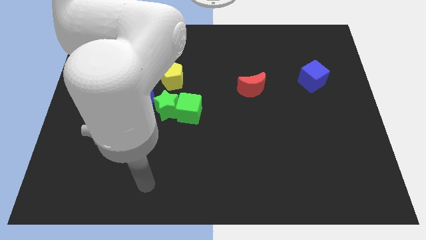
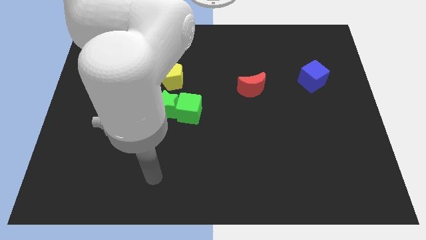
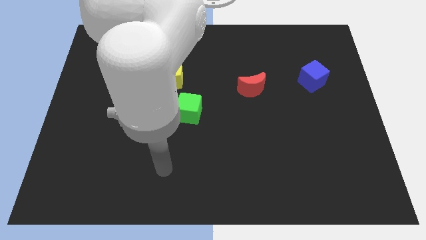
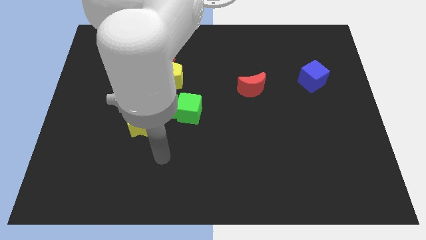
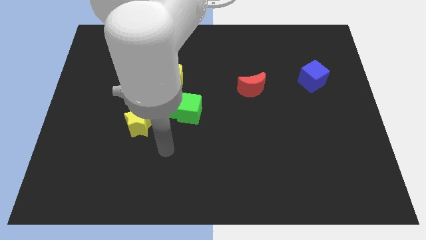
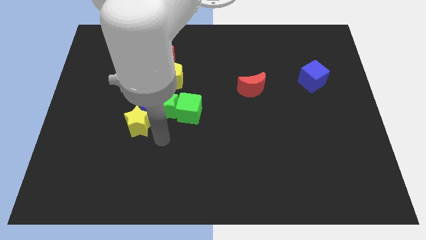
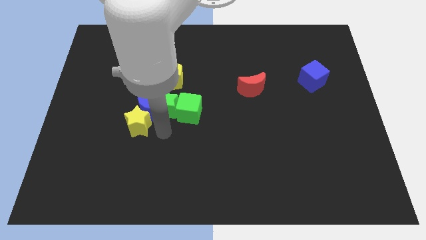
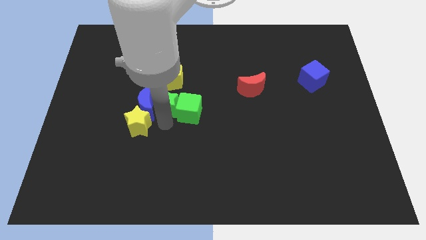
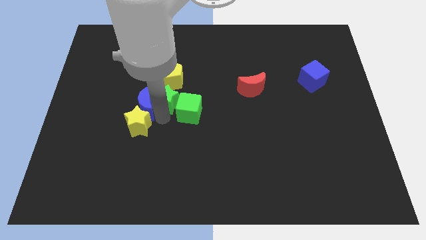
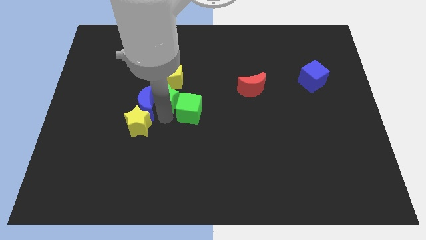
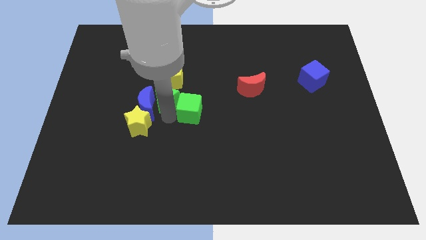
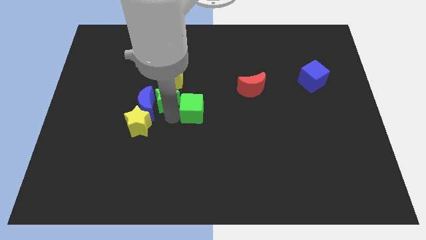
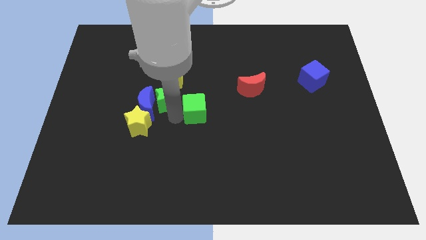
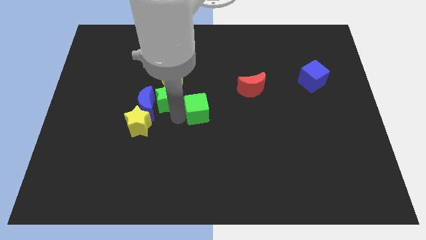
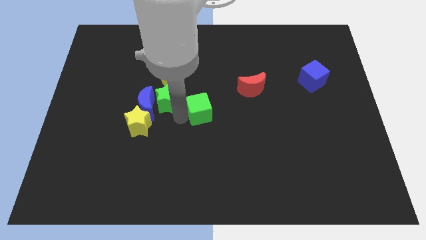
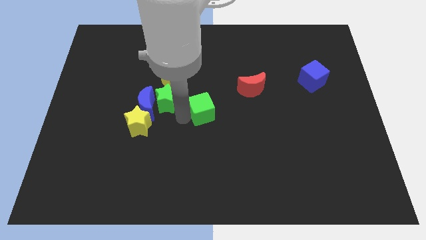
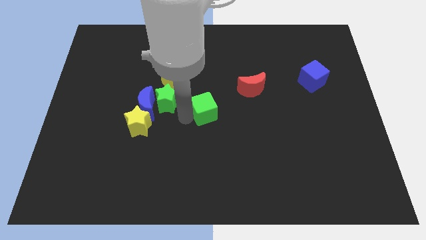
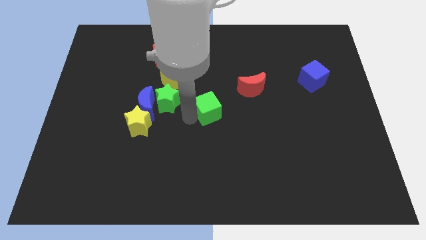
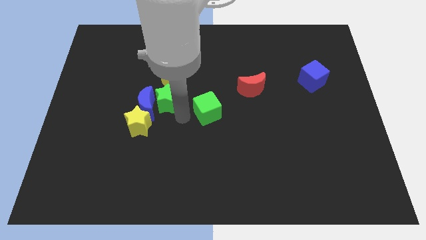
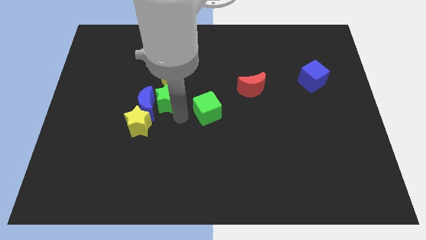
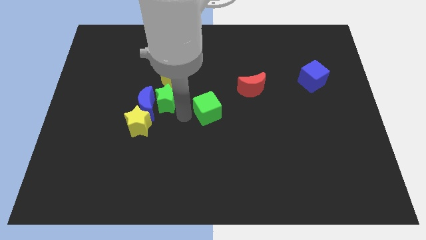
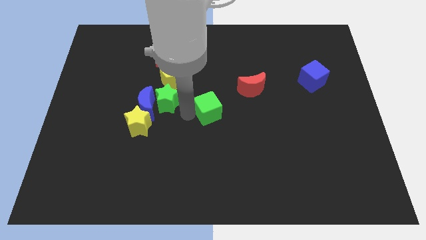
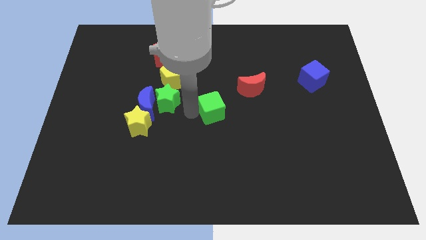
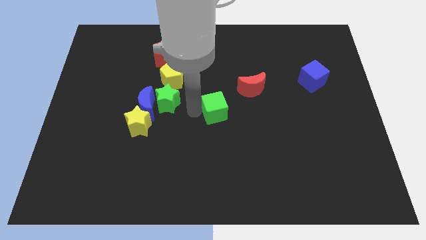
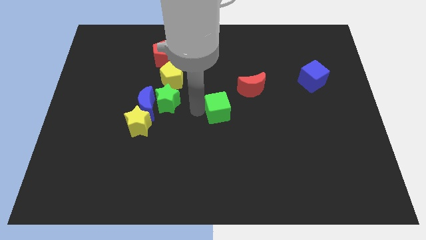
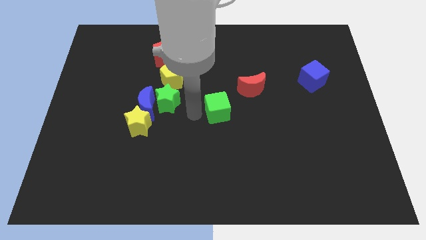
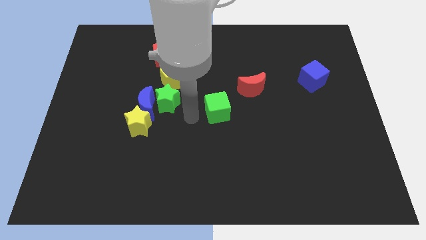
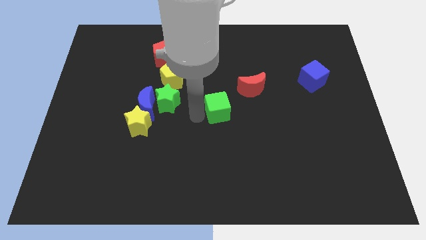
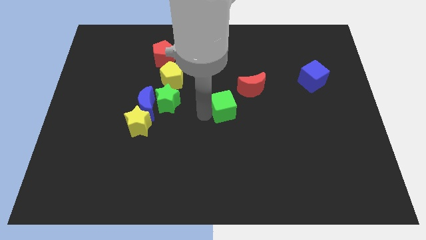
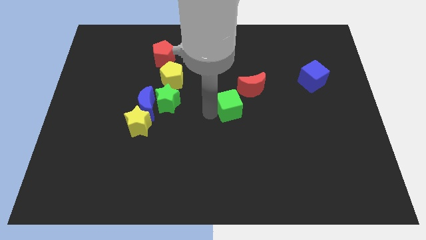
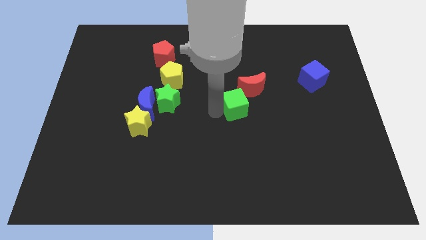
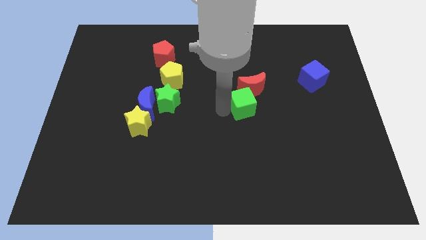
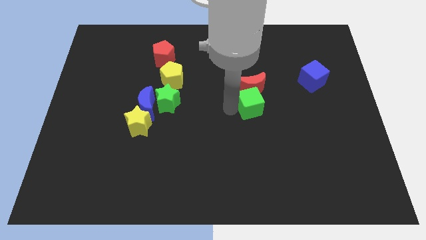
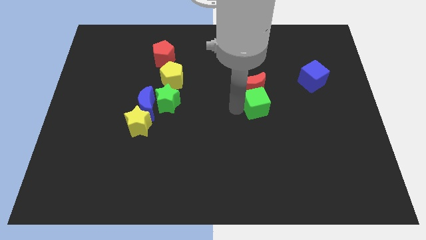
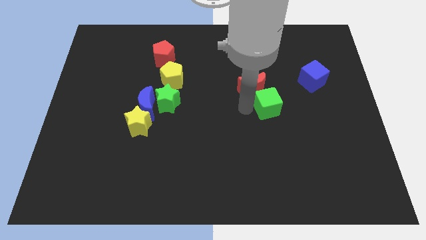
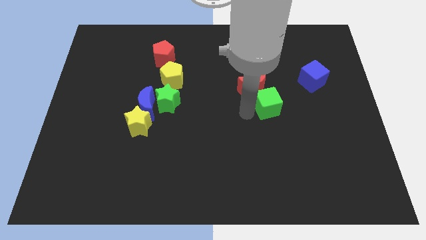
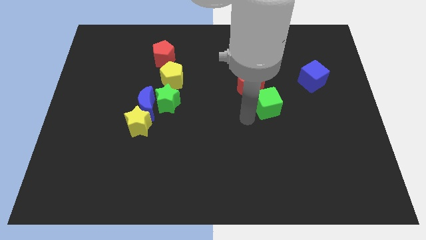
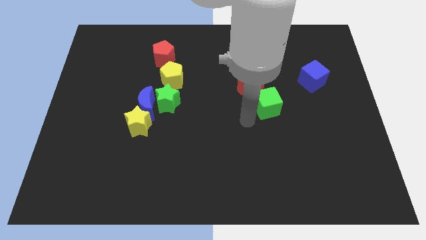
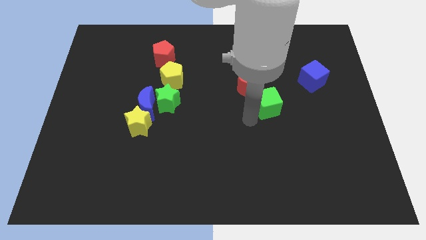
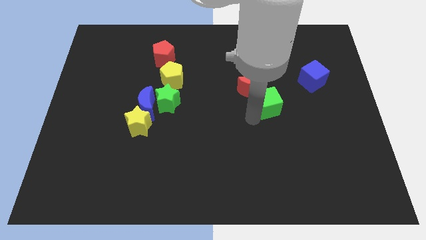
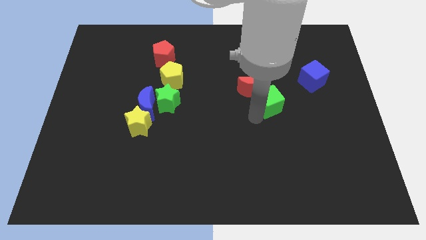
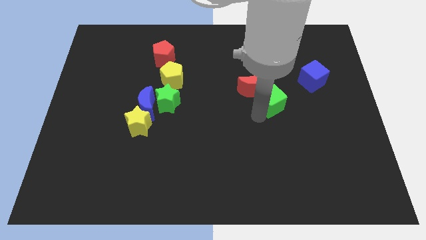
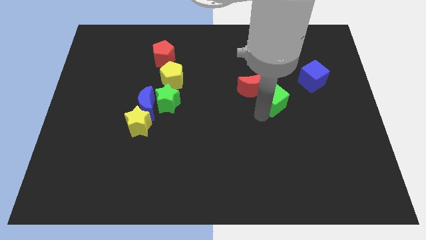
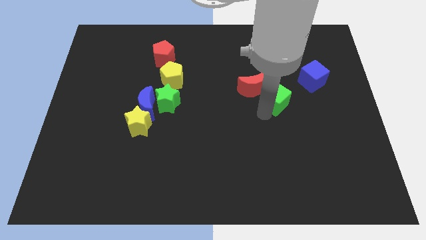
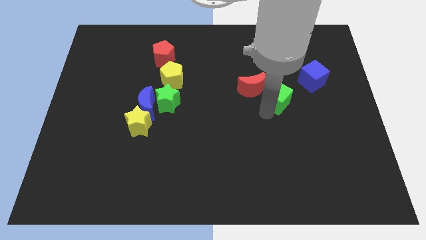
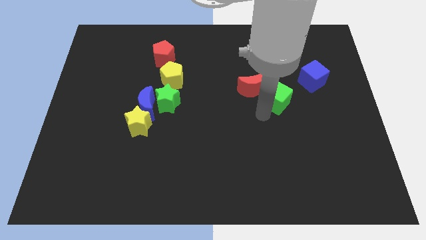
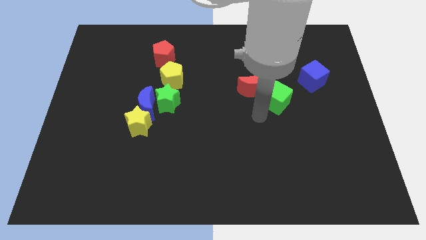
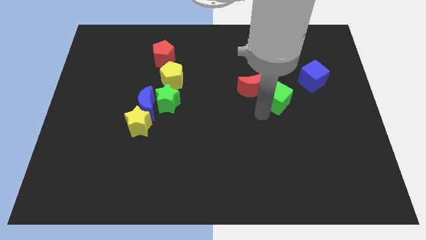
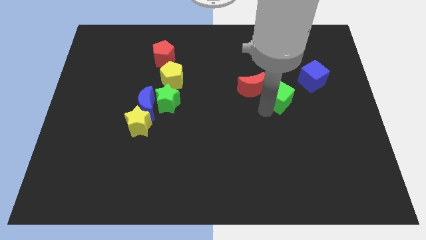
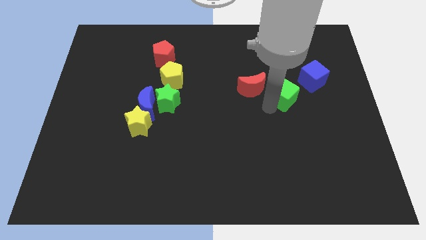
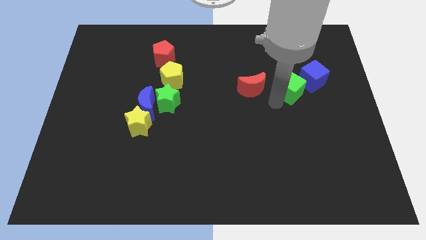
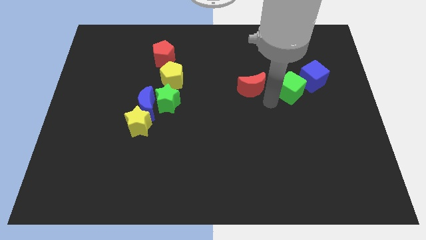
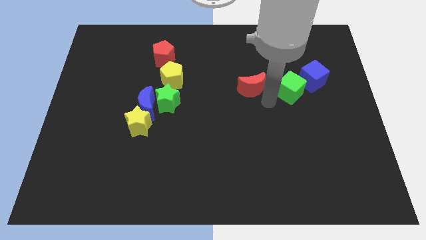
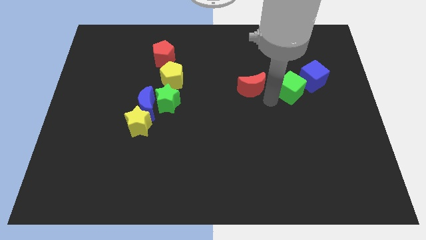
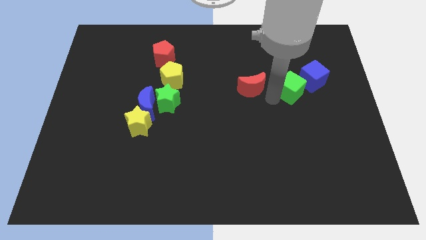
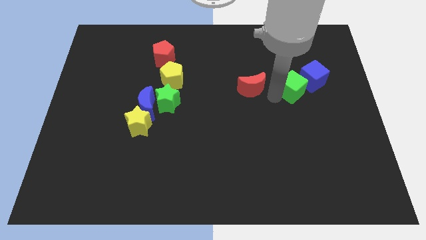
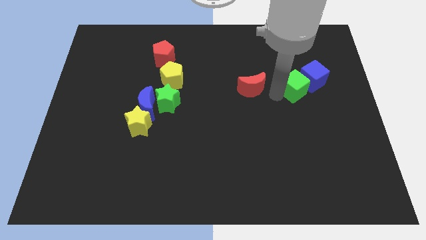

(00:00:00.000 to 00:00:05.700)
push the green cube to the blue cube

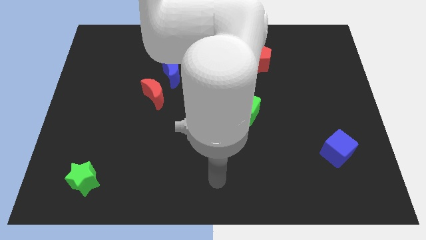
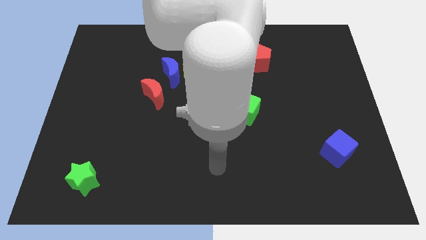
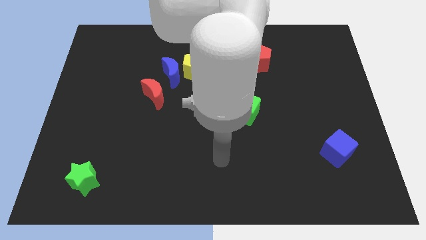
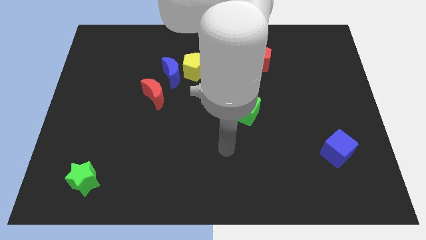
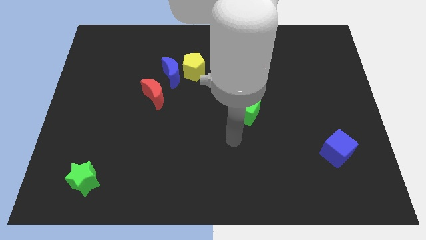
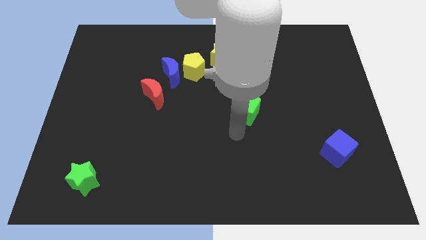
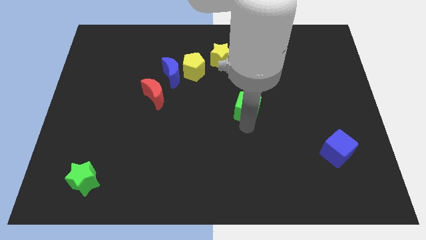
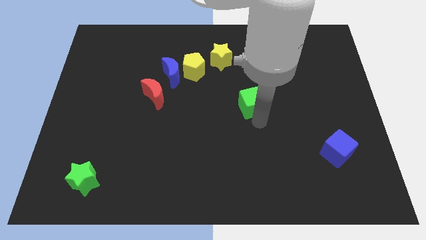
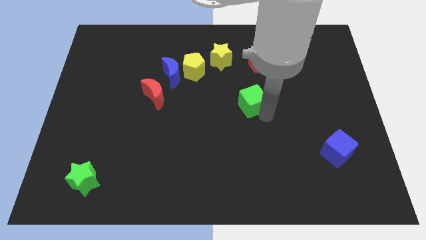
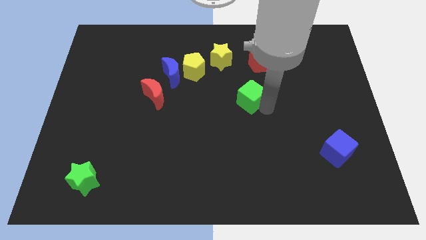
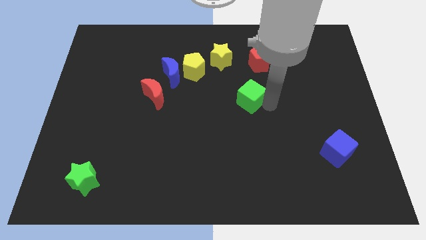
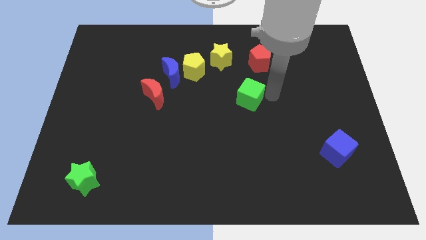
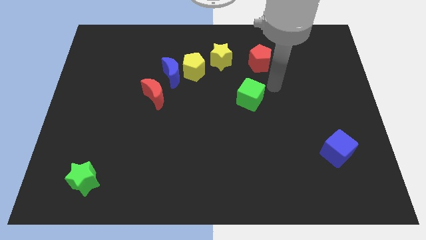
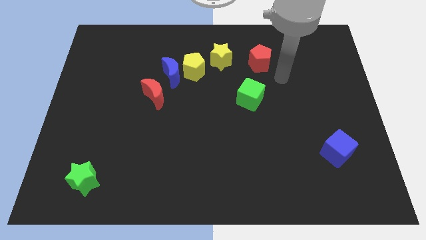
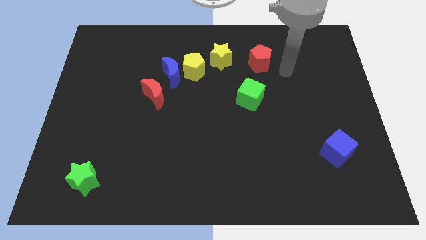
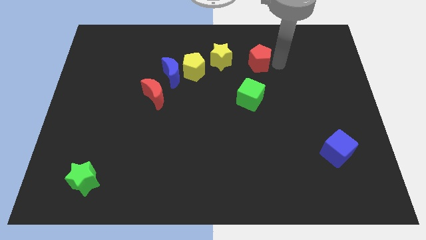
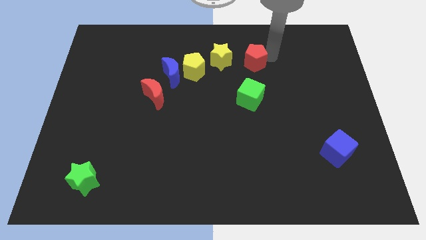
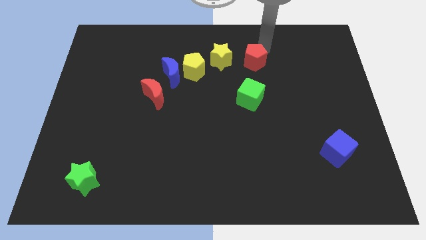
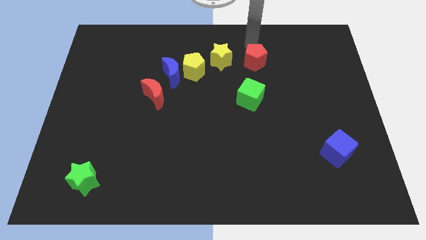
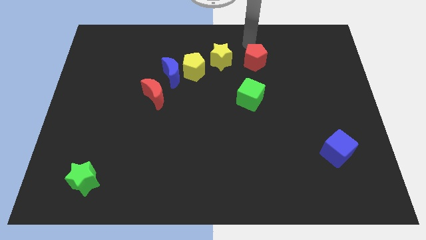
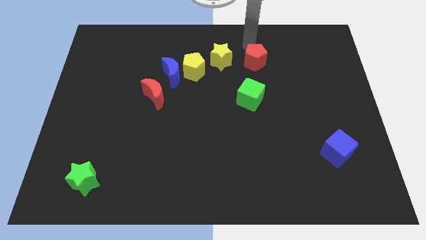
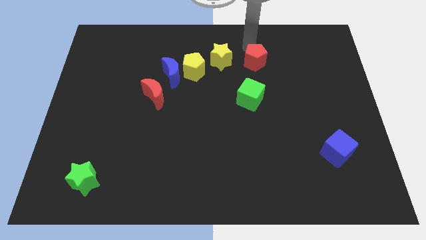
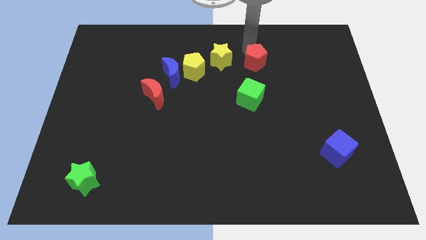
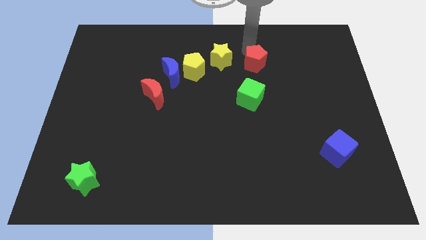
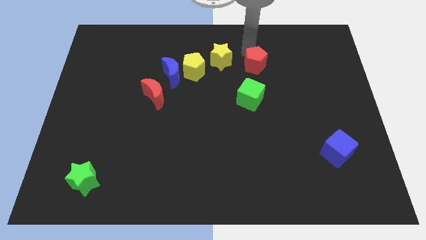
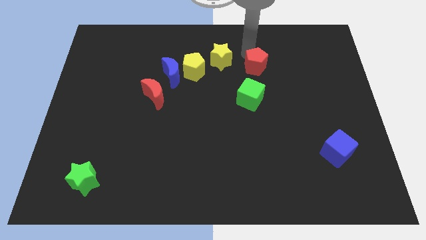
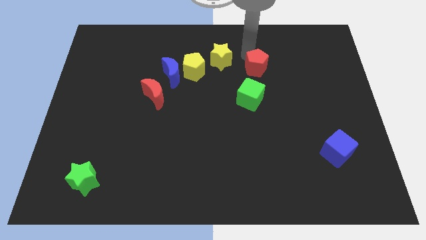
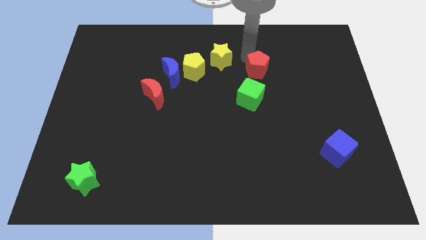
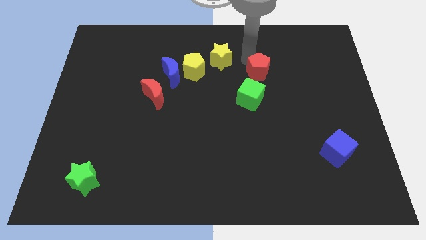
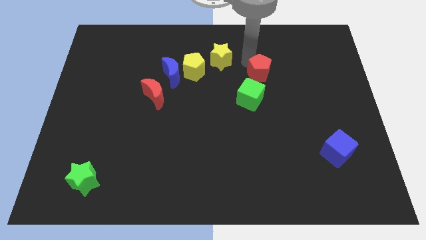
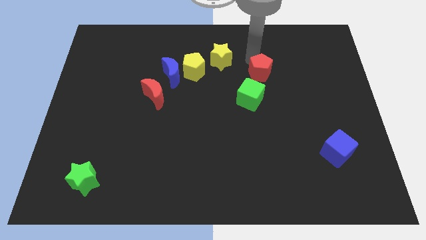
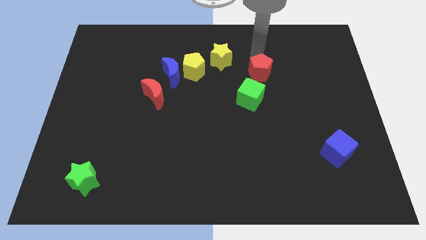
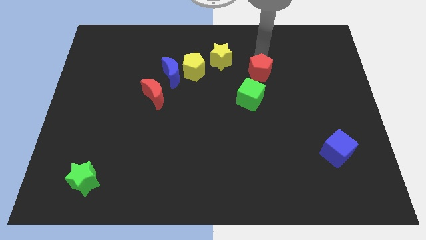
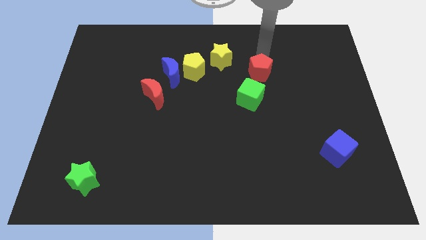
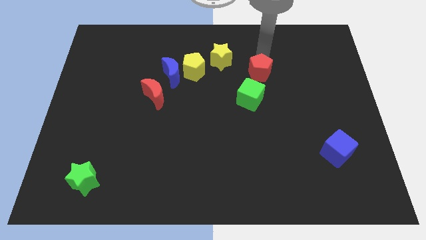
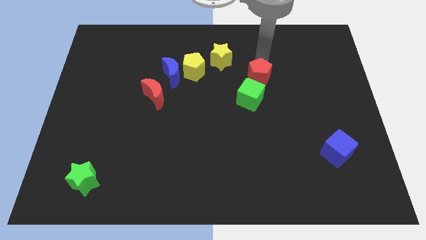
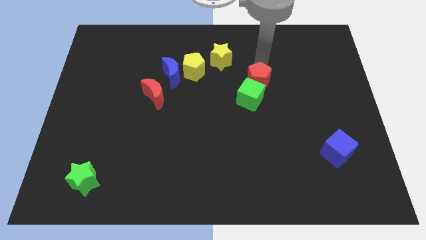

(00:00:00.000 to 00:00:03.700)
push the red pentagon towards the green cube
